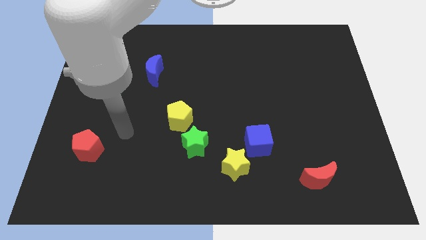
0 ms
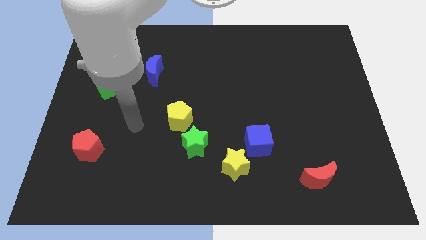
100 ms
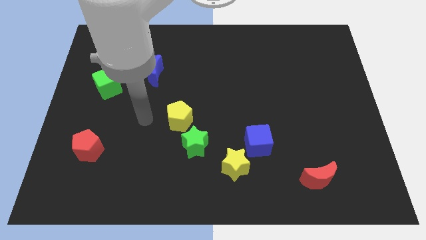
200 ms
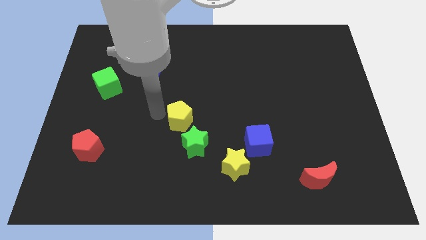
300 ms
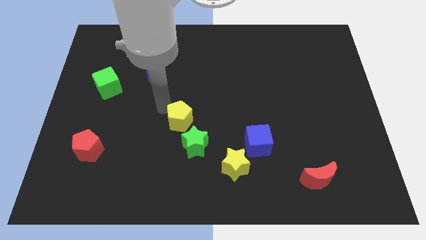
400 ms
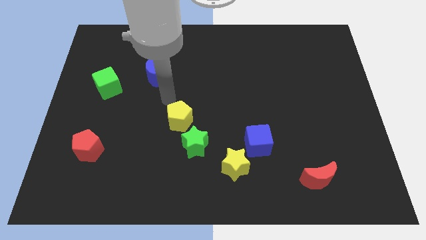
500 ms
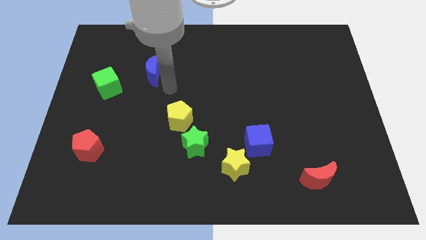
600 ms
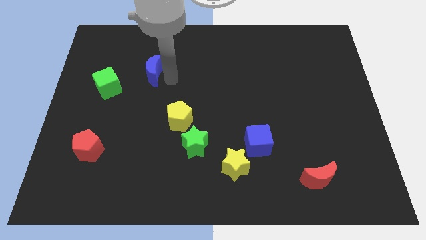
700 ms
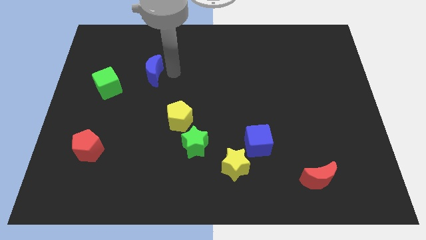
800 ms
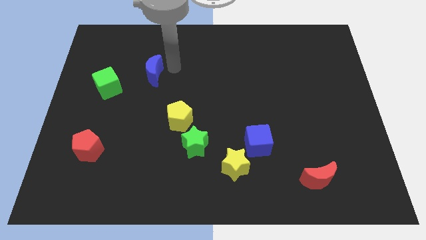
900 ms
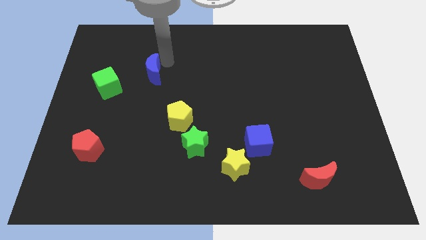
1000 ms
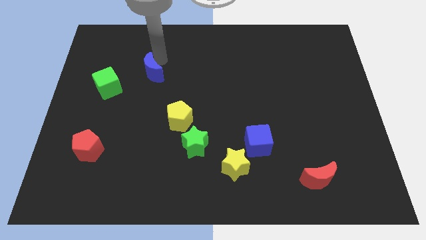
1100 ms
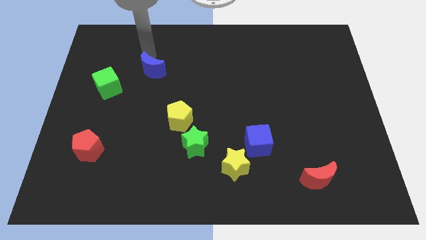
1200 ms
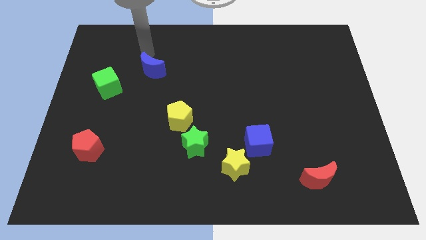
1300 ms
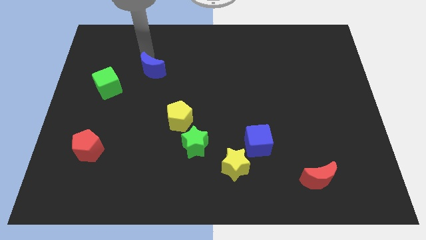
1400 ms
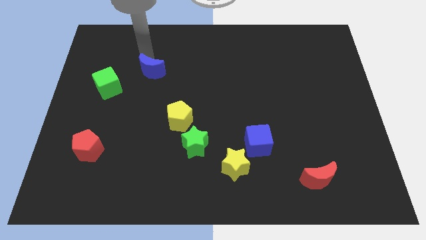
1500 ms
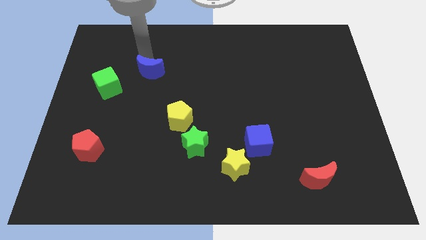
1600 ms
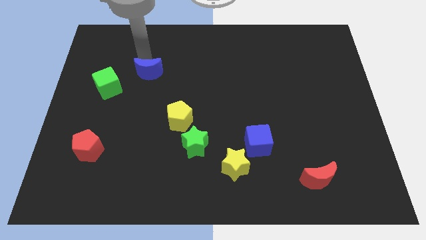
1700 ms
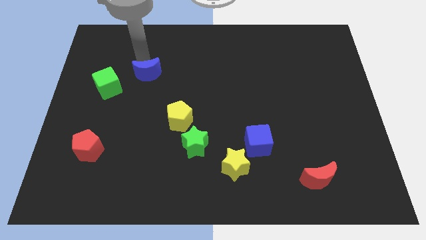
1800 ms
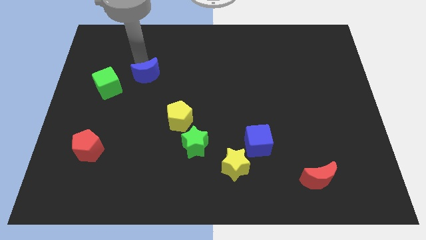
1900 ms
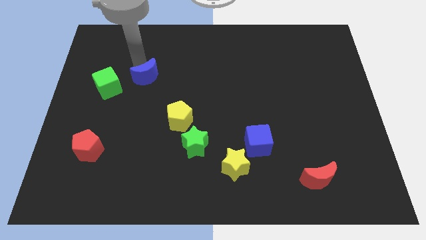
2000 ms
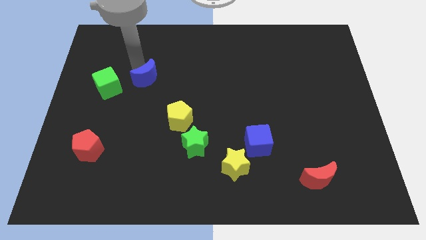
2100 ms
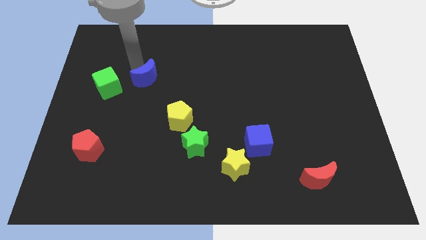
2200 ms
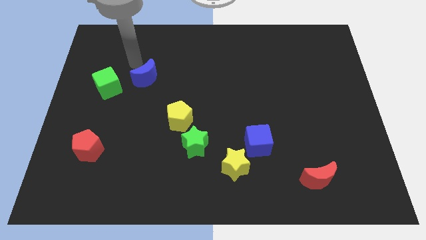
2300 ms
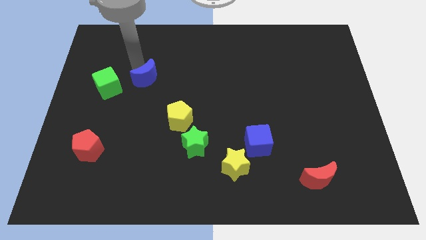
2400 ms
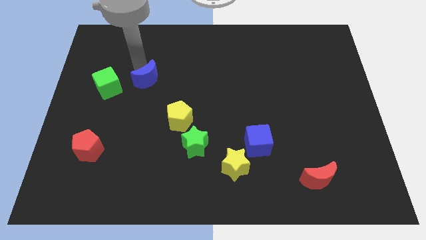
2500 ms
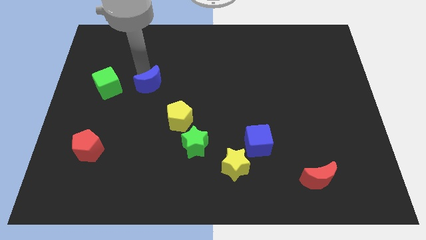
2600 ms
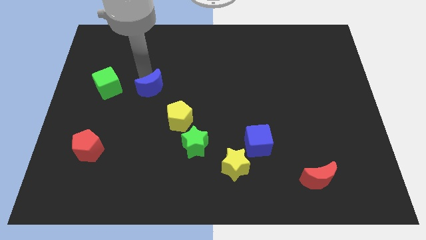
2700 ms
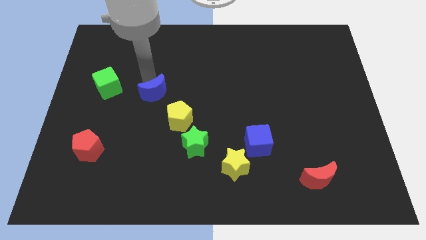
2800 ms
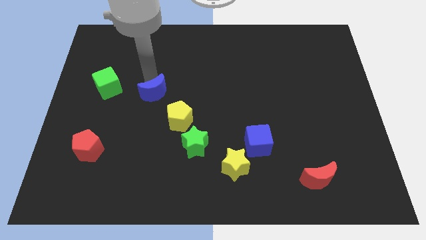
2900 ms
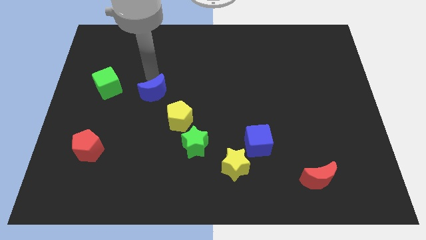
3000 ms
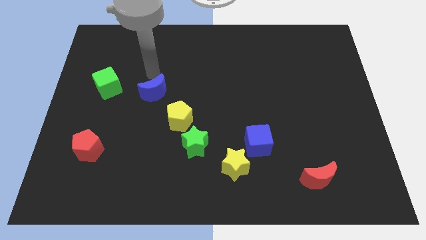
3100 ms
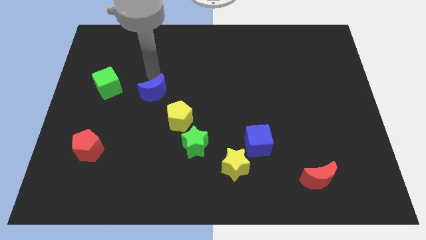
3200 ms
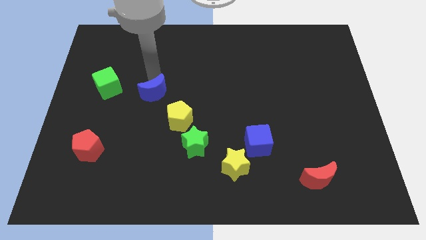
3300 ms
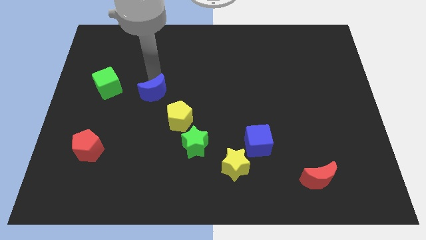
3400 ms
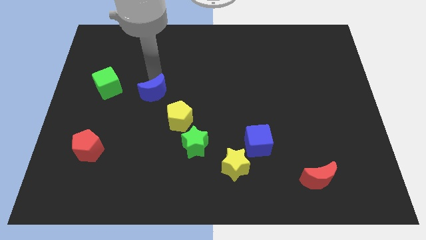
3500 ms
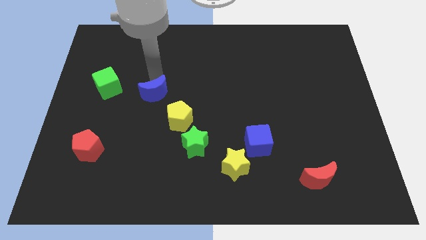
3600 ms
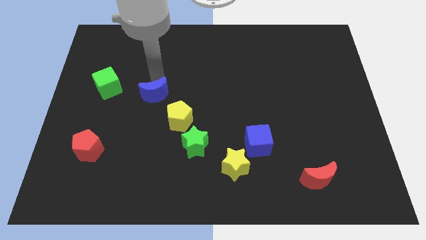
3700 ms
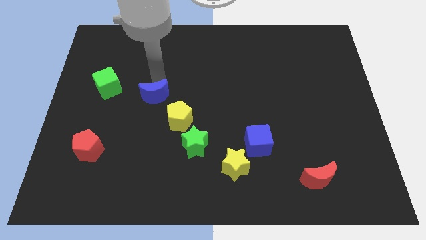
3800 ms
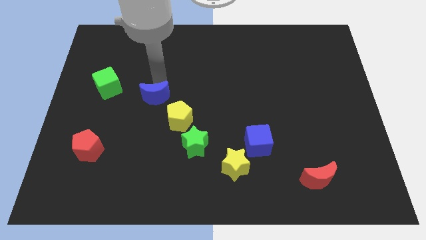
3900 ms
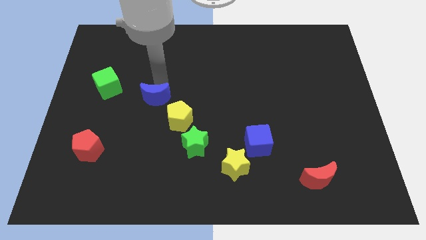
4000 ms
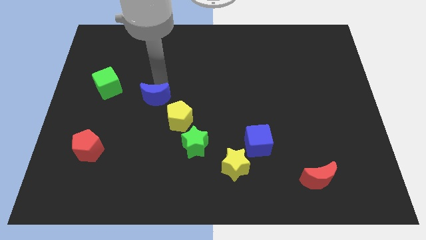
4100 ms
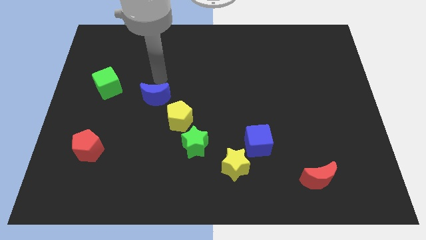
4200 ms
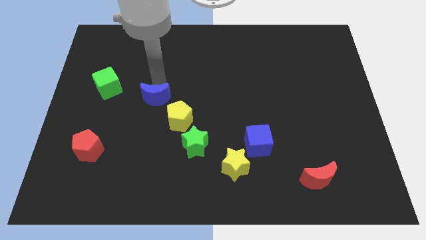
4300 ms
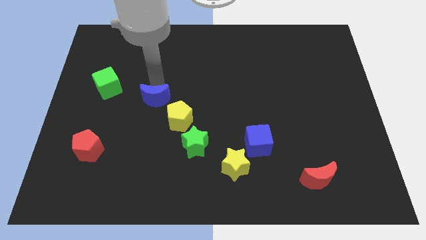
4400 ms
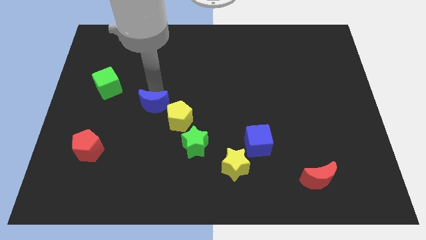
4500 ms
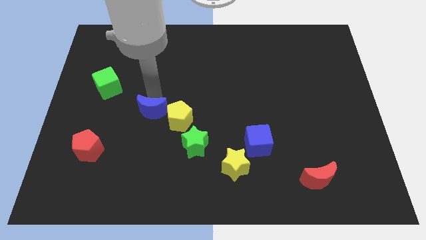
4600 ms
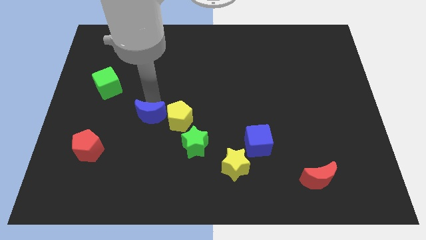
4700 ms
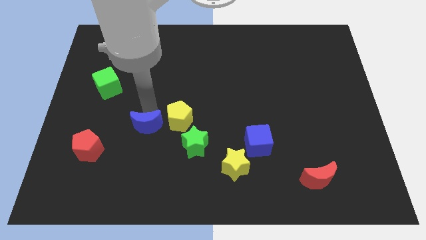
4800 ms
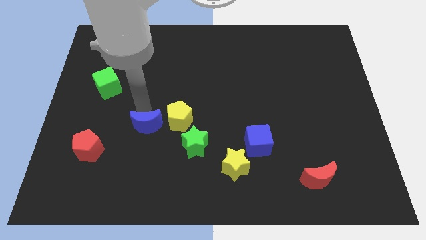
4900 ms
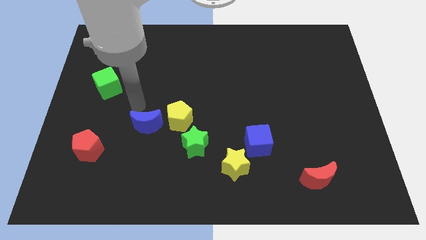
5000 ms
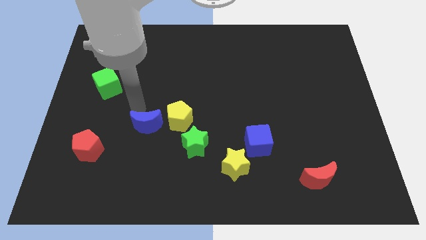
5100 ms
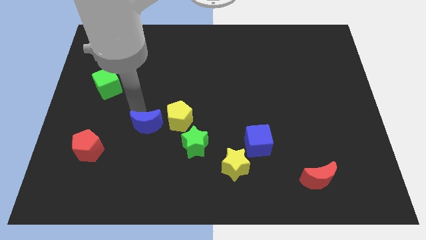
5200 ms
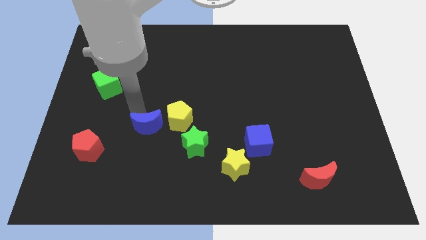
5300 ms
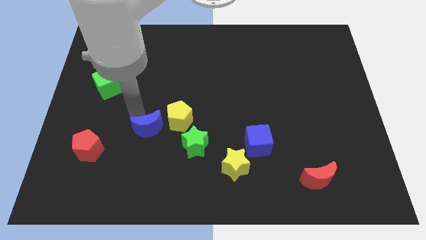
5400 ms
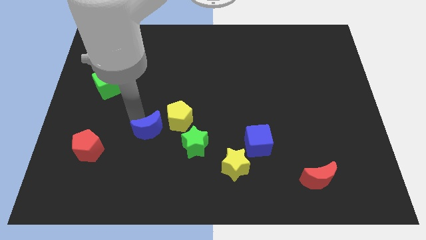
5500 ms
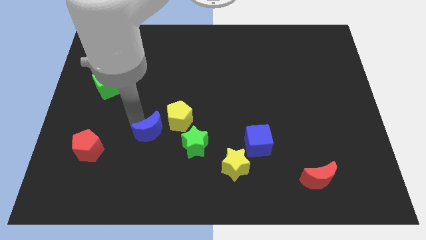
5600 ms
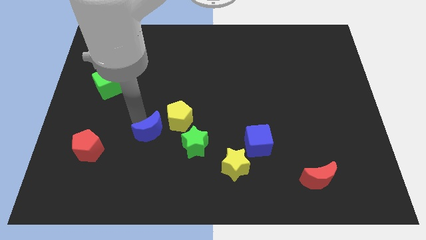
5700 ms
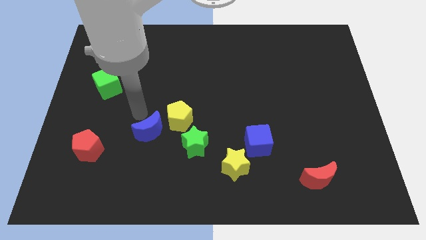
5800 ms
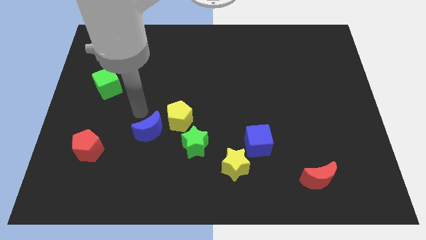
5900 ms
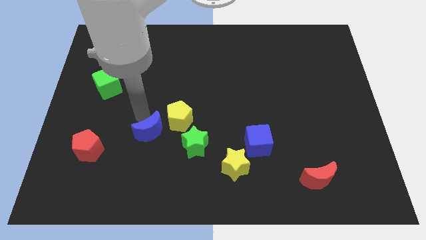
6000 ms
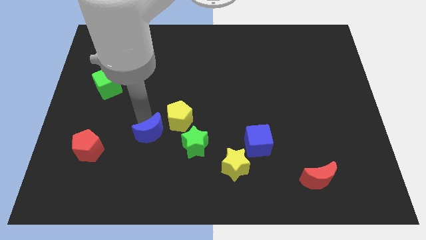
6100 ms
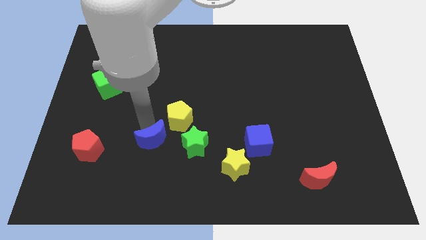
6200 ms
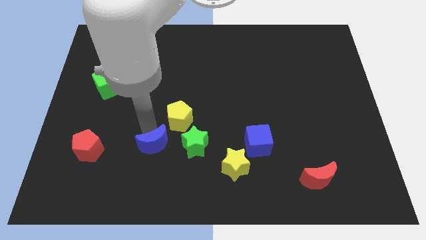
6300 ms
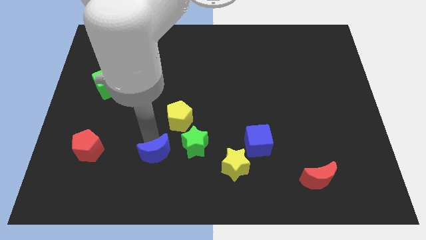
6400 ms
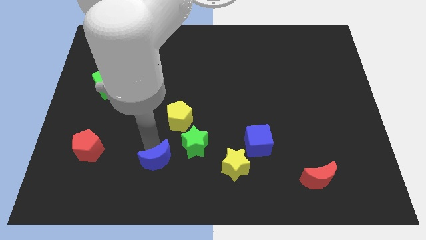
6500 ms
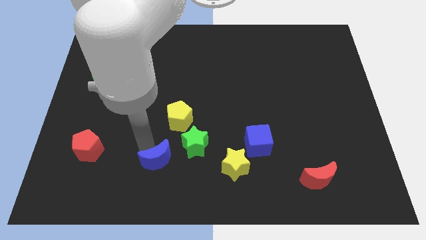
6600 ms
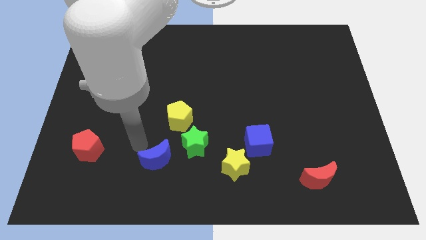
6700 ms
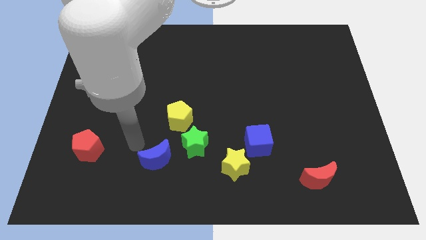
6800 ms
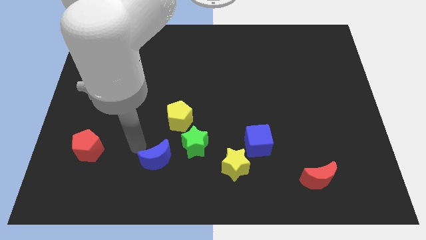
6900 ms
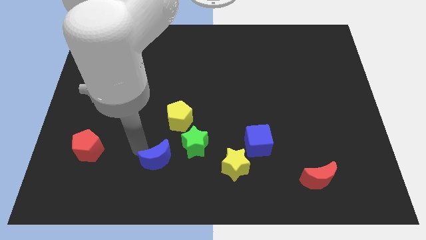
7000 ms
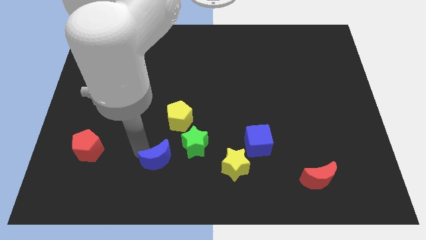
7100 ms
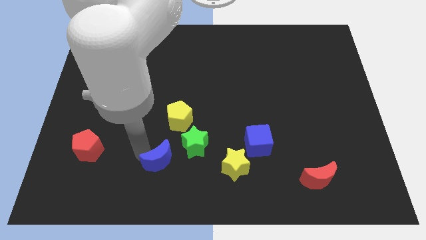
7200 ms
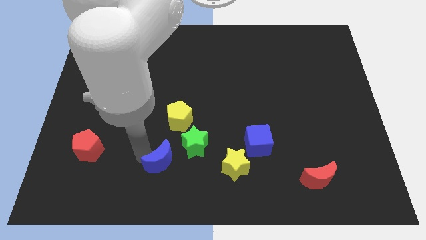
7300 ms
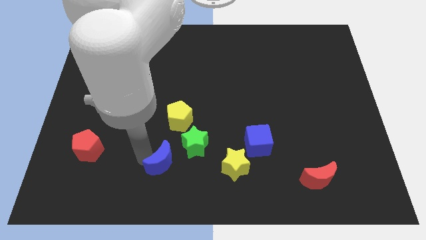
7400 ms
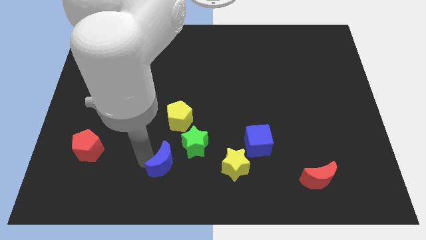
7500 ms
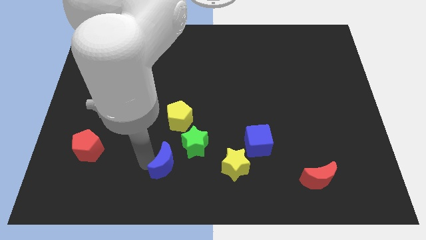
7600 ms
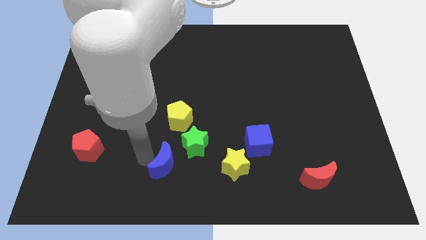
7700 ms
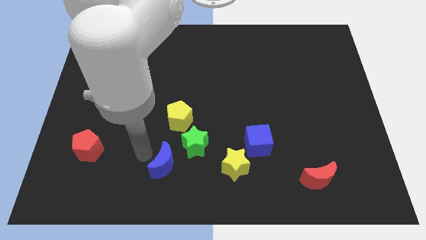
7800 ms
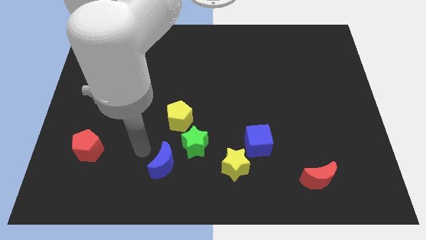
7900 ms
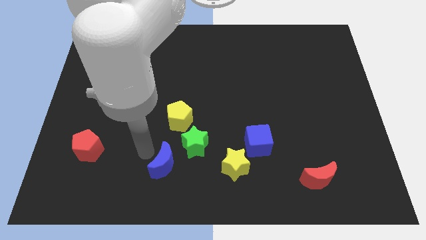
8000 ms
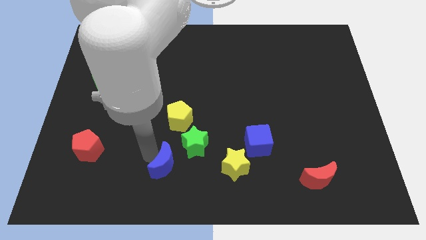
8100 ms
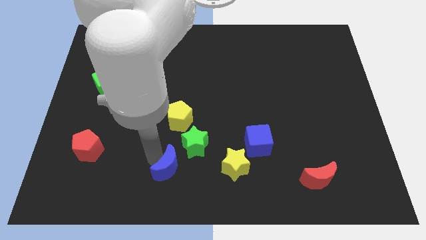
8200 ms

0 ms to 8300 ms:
move the blue moon to the bottom

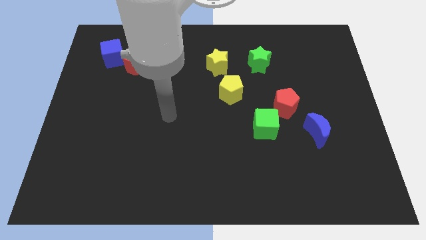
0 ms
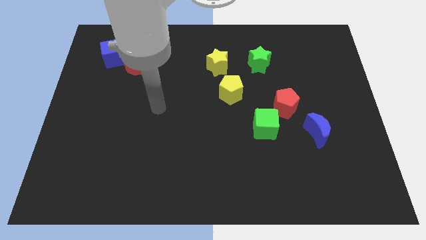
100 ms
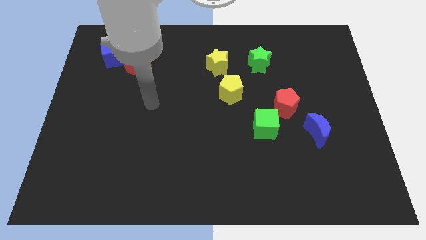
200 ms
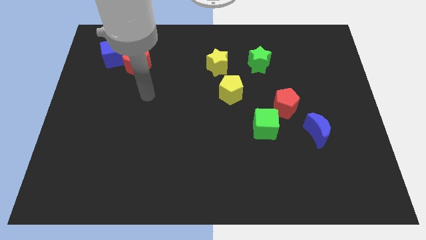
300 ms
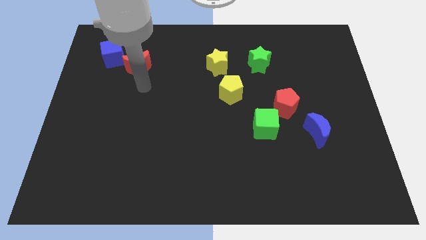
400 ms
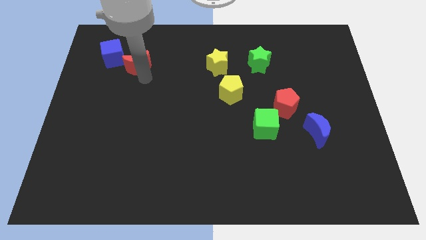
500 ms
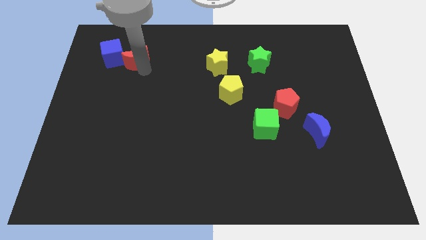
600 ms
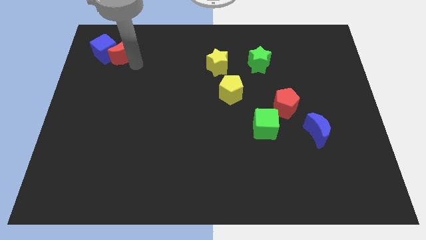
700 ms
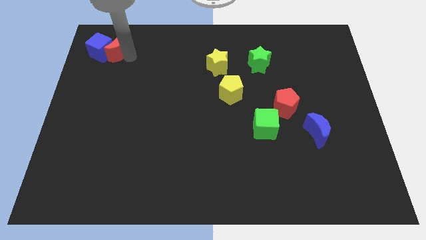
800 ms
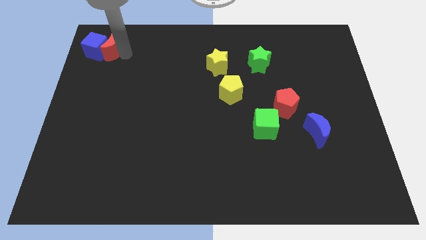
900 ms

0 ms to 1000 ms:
slide the blue cube to the top left corner
